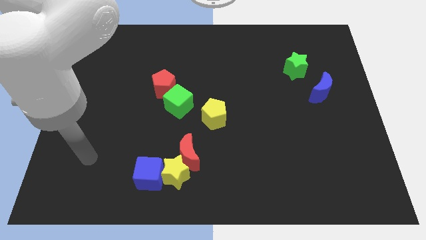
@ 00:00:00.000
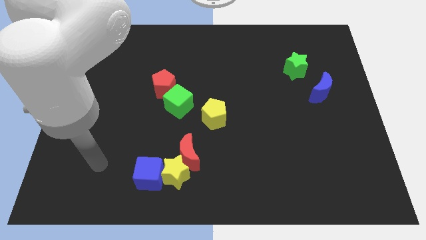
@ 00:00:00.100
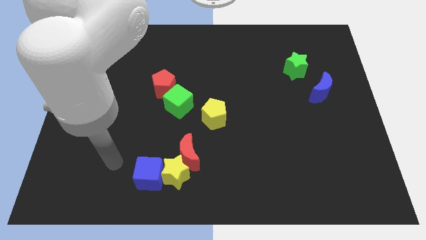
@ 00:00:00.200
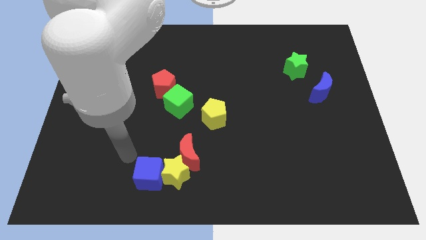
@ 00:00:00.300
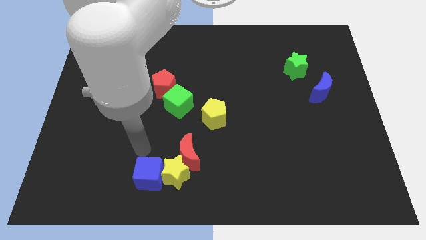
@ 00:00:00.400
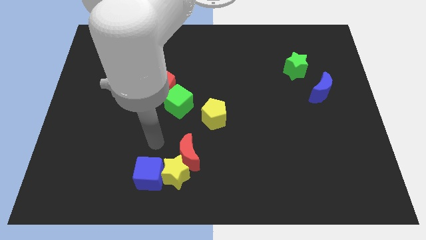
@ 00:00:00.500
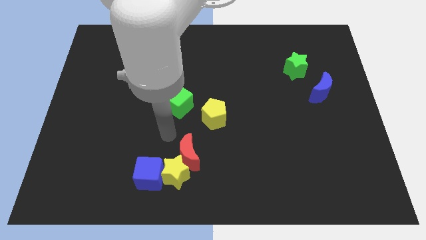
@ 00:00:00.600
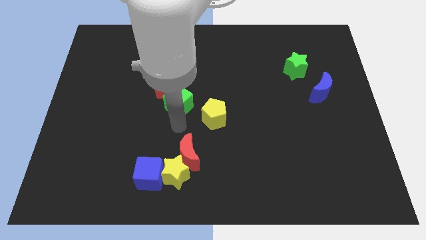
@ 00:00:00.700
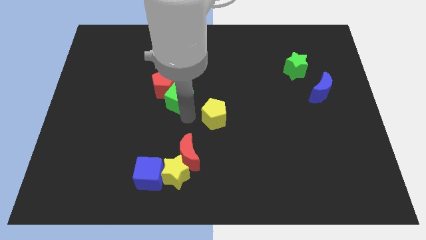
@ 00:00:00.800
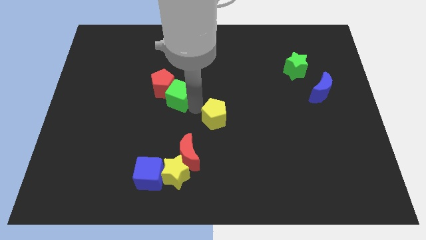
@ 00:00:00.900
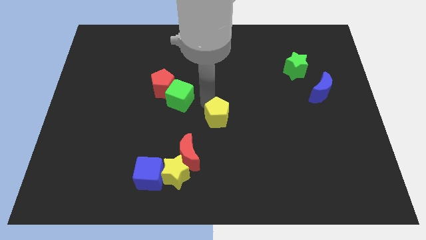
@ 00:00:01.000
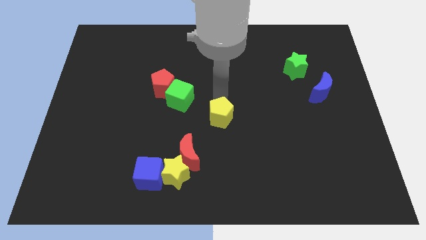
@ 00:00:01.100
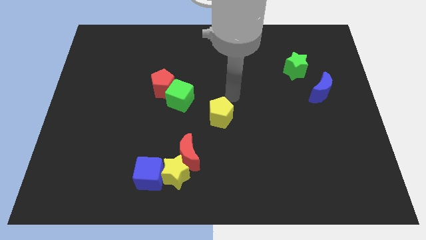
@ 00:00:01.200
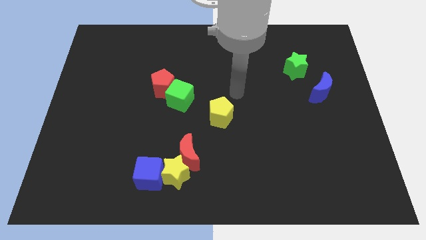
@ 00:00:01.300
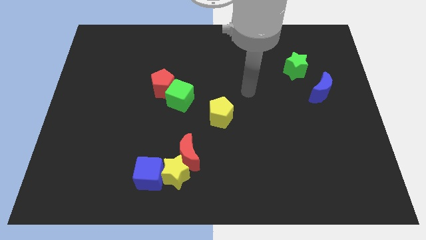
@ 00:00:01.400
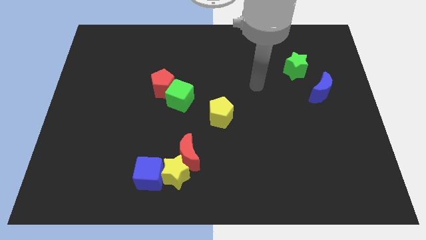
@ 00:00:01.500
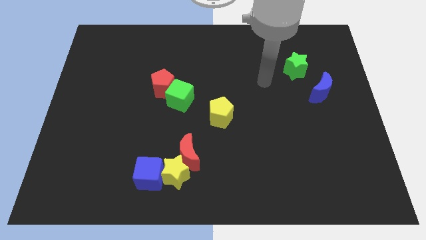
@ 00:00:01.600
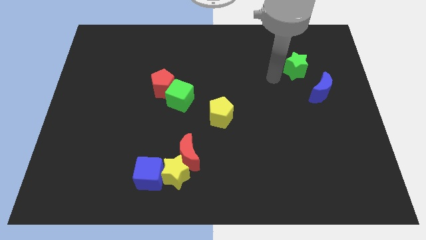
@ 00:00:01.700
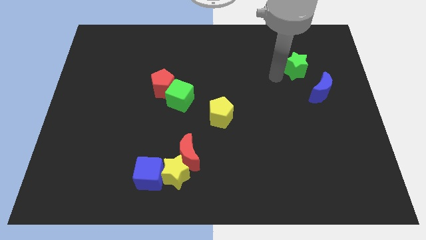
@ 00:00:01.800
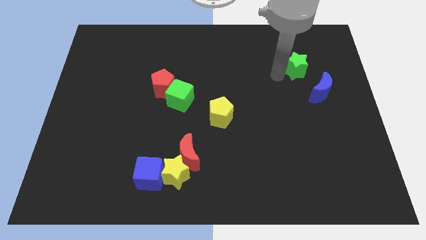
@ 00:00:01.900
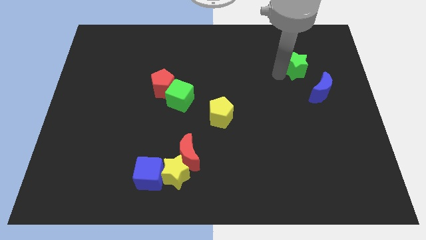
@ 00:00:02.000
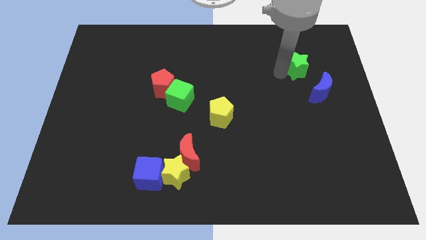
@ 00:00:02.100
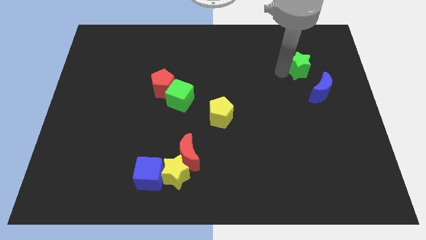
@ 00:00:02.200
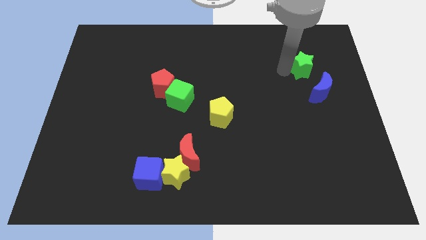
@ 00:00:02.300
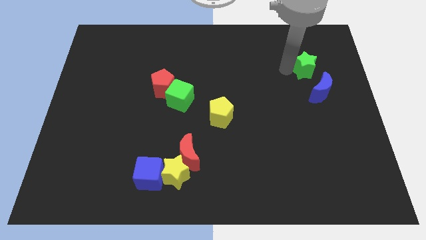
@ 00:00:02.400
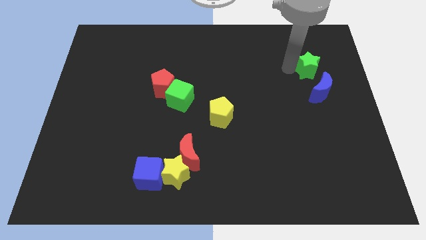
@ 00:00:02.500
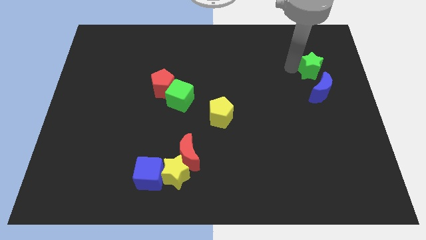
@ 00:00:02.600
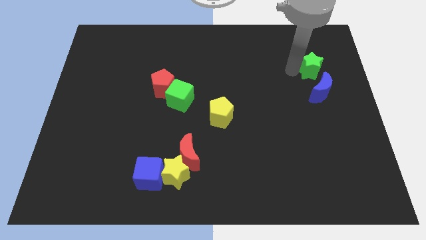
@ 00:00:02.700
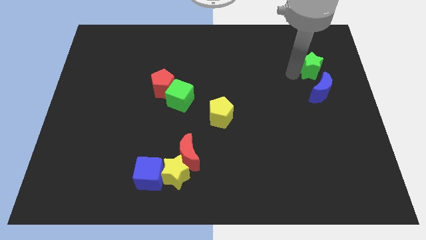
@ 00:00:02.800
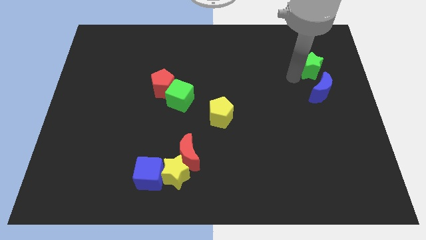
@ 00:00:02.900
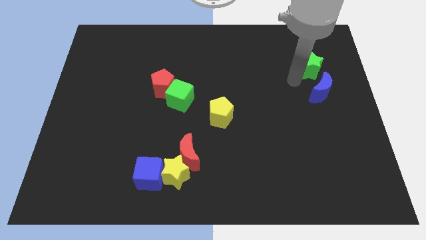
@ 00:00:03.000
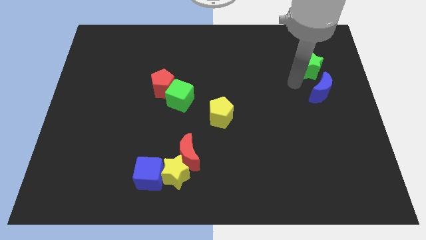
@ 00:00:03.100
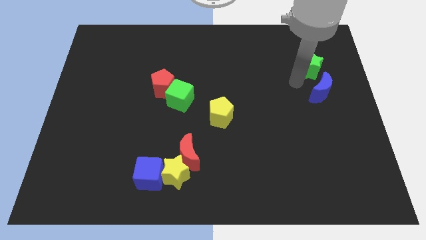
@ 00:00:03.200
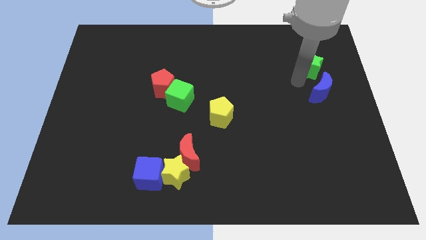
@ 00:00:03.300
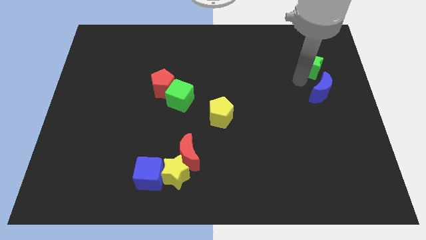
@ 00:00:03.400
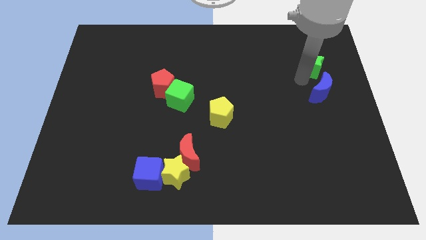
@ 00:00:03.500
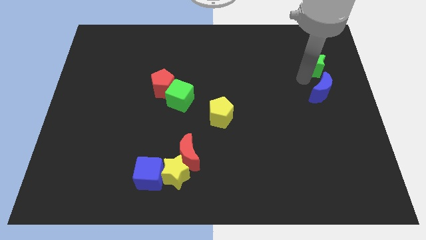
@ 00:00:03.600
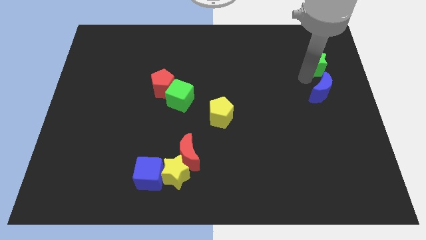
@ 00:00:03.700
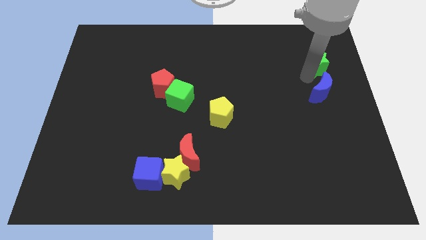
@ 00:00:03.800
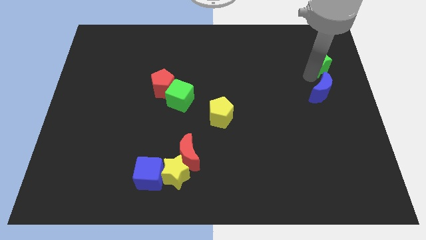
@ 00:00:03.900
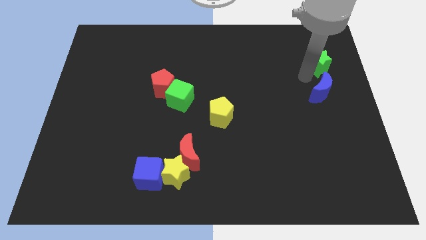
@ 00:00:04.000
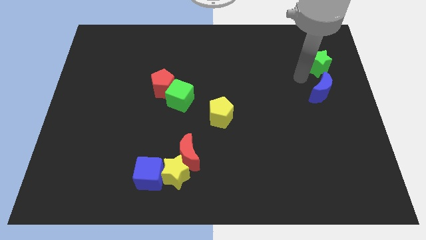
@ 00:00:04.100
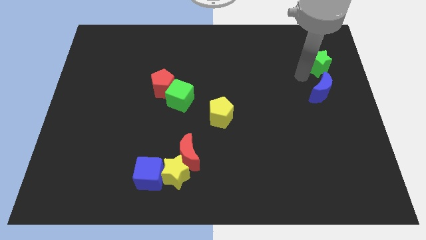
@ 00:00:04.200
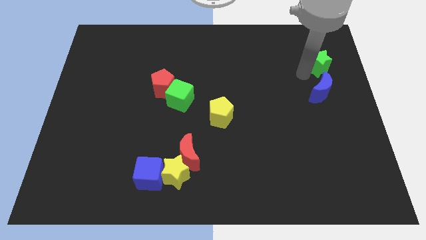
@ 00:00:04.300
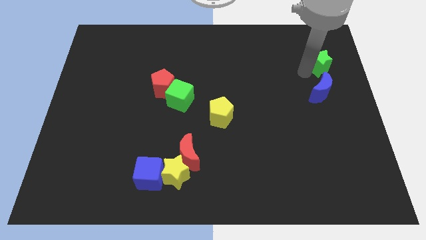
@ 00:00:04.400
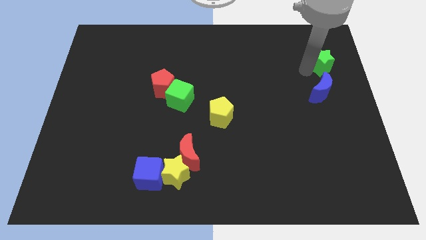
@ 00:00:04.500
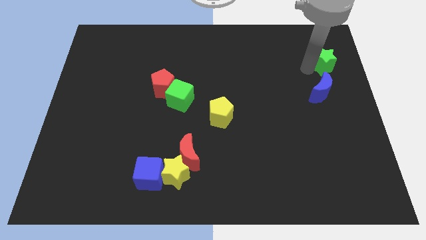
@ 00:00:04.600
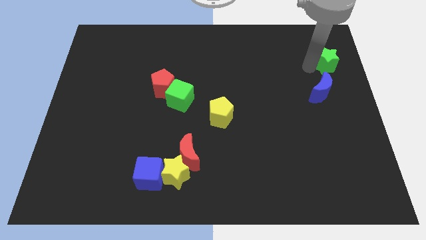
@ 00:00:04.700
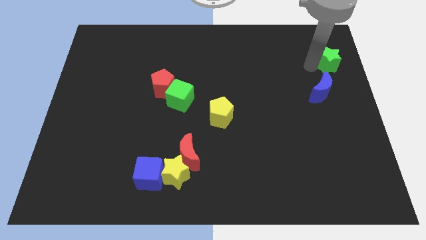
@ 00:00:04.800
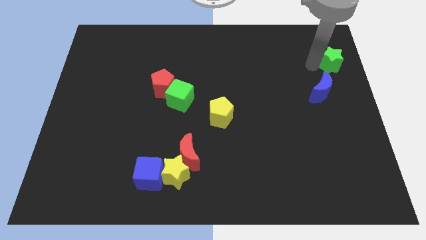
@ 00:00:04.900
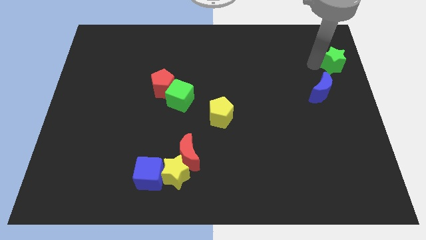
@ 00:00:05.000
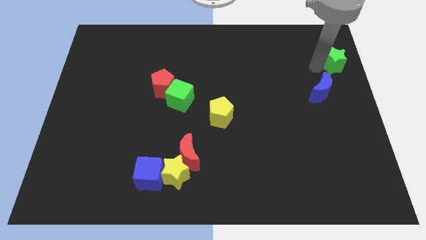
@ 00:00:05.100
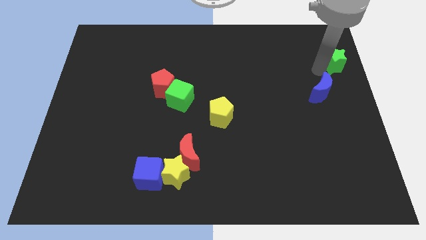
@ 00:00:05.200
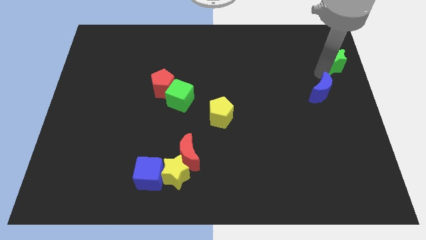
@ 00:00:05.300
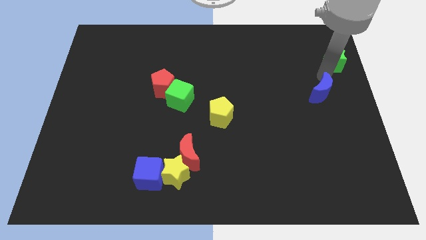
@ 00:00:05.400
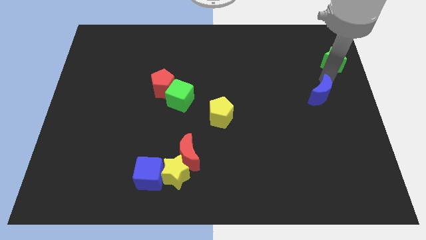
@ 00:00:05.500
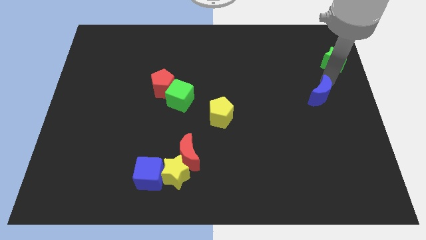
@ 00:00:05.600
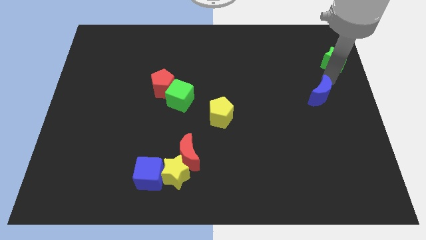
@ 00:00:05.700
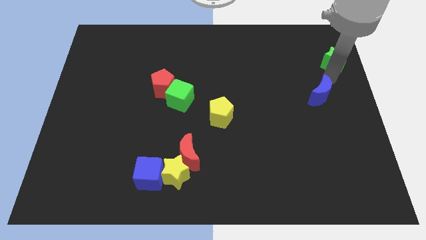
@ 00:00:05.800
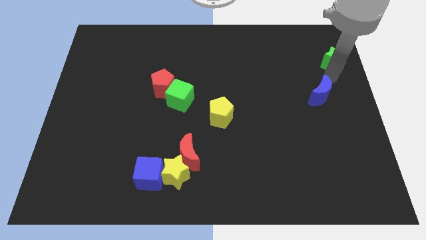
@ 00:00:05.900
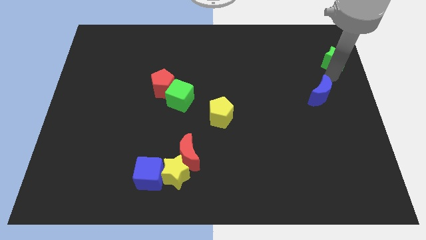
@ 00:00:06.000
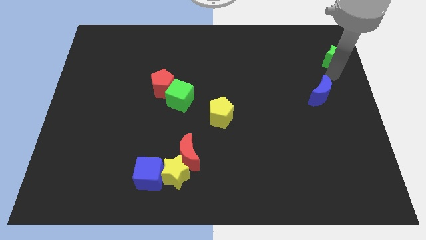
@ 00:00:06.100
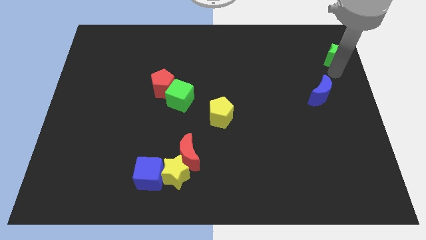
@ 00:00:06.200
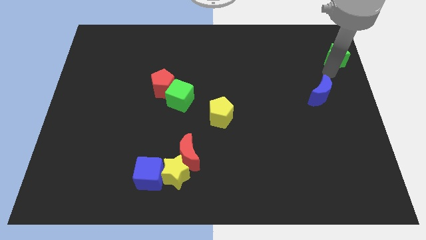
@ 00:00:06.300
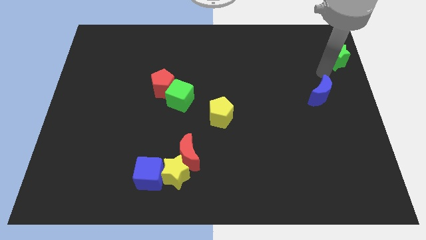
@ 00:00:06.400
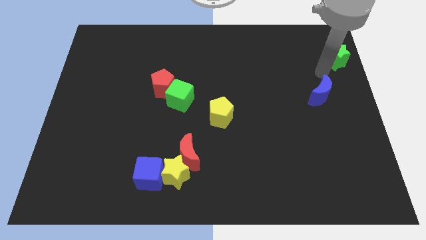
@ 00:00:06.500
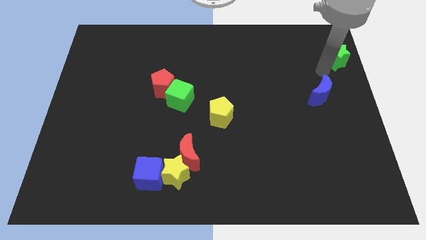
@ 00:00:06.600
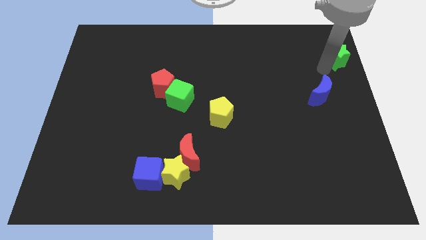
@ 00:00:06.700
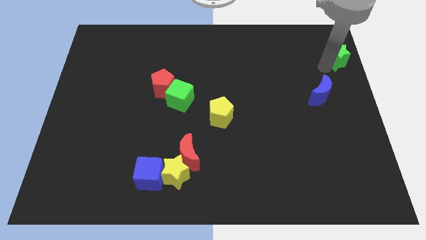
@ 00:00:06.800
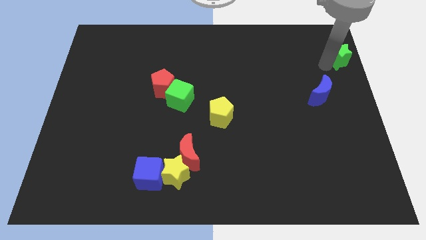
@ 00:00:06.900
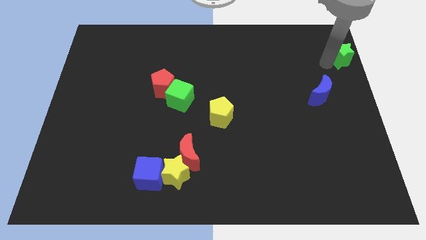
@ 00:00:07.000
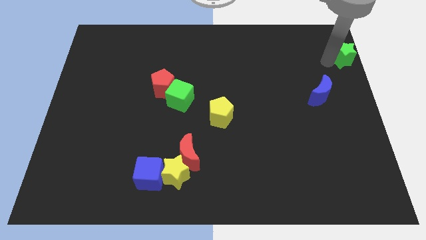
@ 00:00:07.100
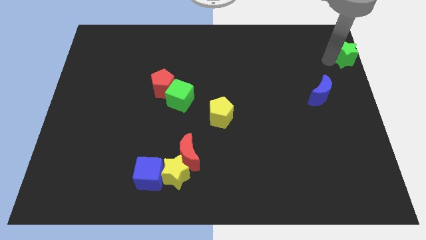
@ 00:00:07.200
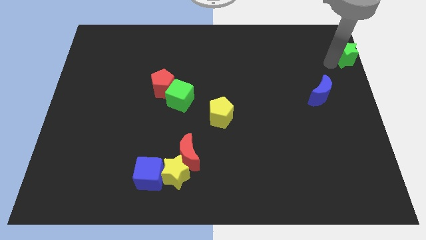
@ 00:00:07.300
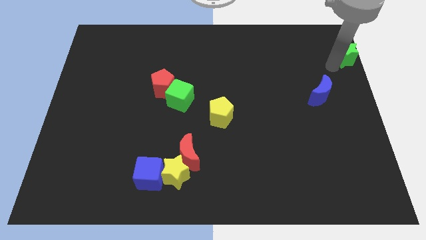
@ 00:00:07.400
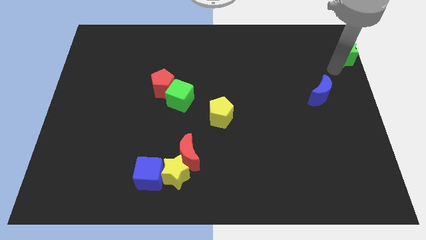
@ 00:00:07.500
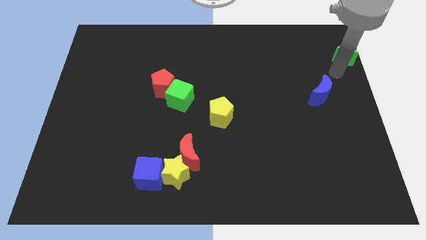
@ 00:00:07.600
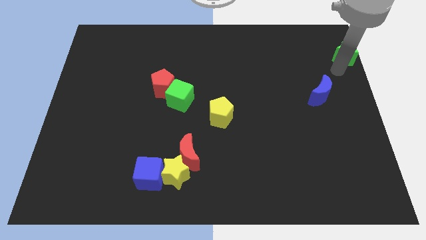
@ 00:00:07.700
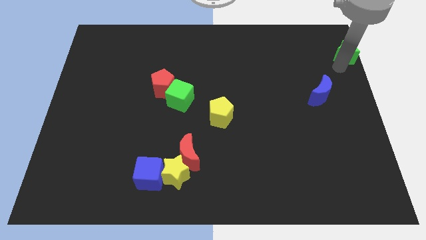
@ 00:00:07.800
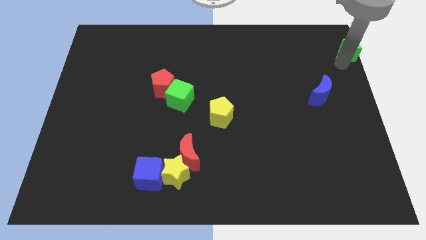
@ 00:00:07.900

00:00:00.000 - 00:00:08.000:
move the green star to the top right corner
